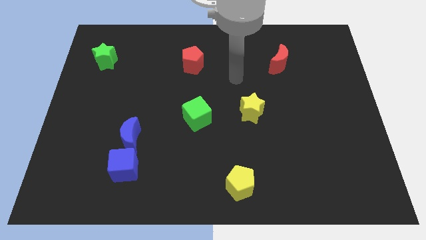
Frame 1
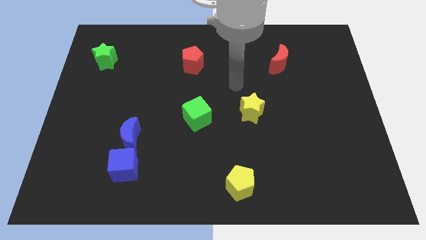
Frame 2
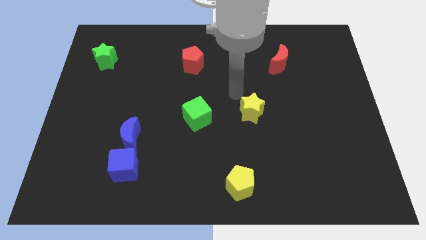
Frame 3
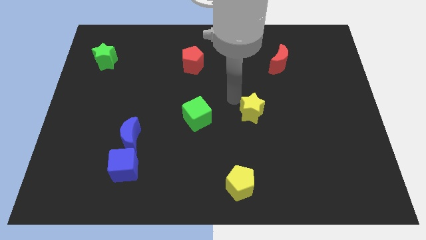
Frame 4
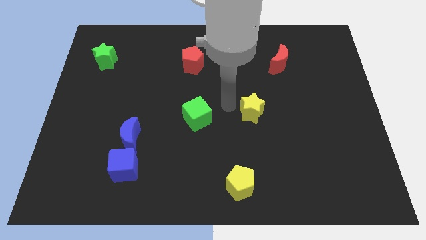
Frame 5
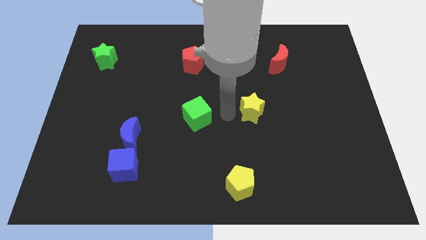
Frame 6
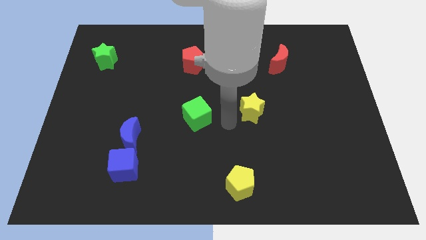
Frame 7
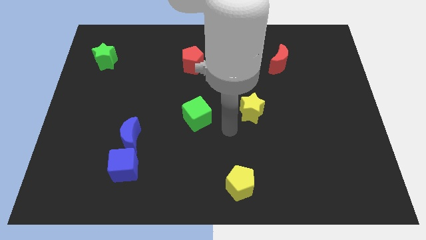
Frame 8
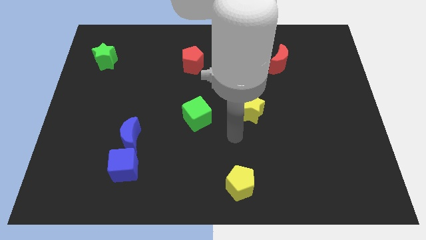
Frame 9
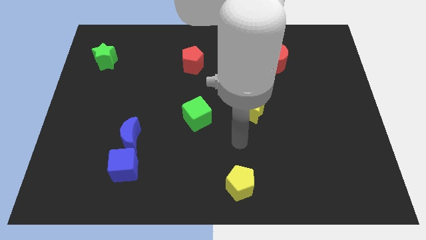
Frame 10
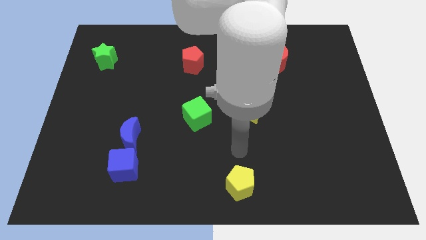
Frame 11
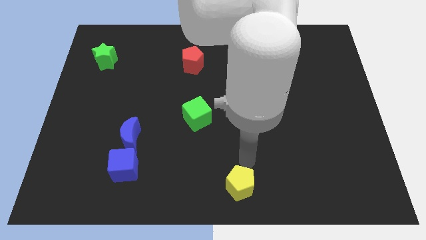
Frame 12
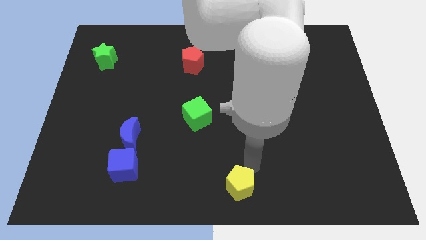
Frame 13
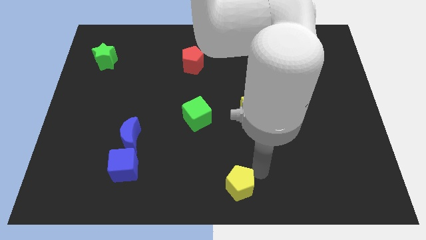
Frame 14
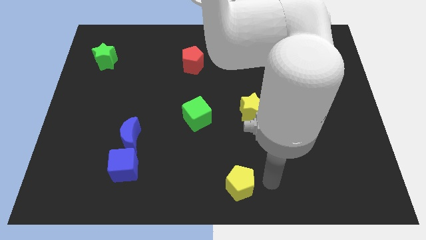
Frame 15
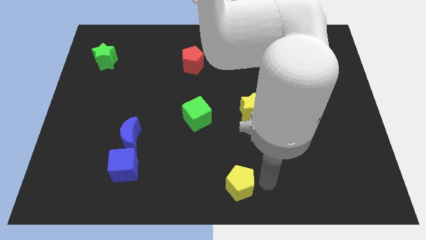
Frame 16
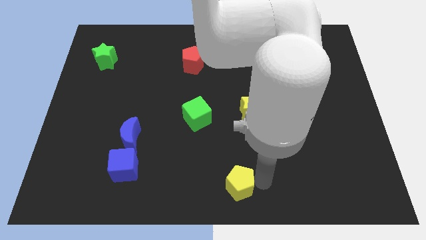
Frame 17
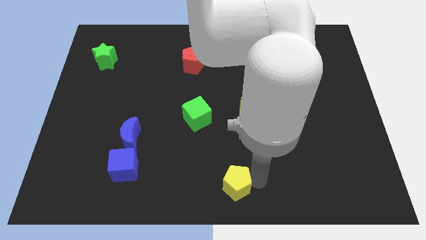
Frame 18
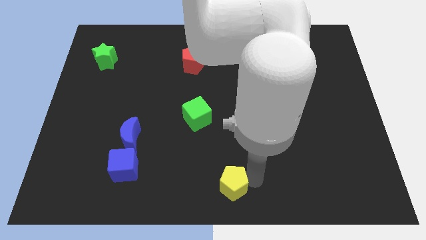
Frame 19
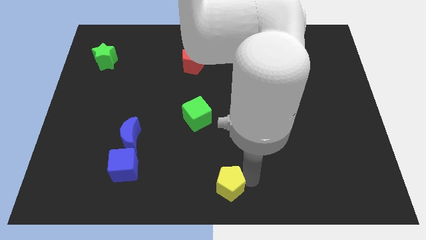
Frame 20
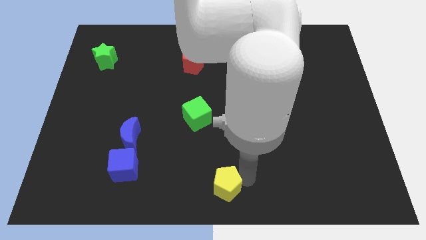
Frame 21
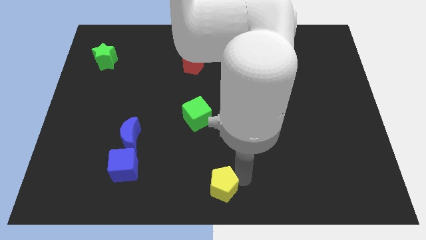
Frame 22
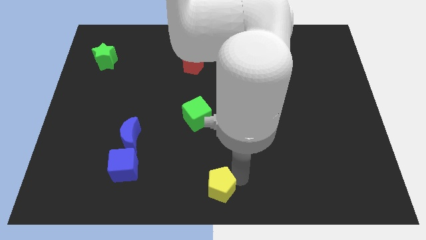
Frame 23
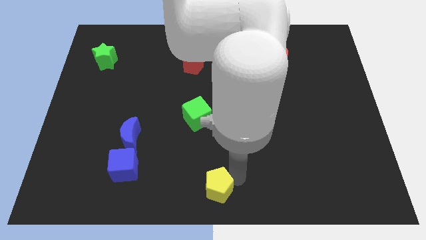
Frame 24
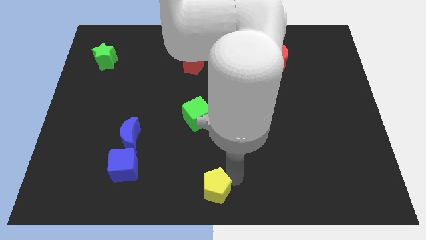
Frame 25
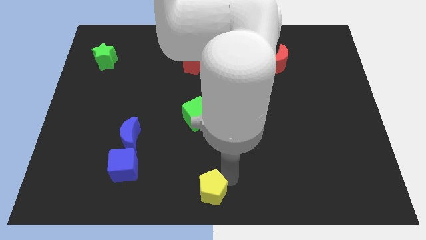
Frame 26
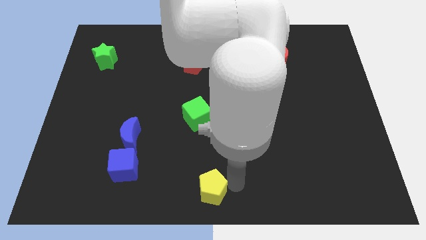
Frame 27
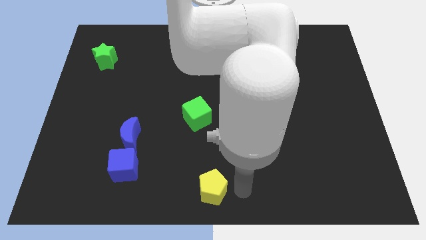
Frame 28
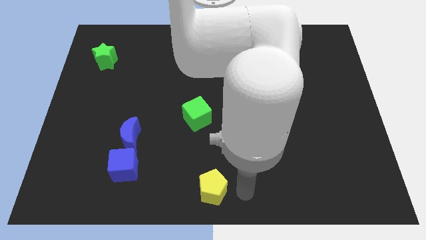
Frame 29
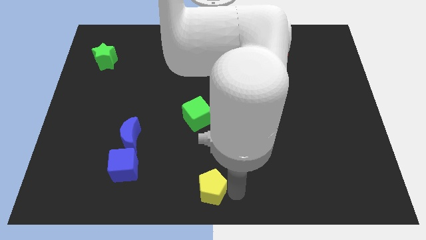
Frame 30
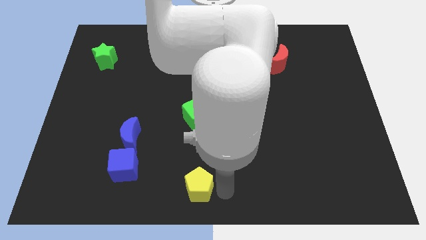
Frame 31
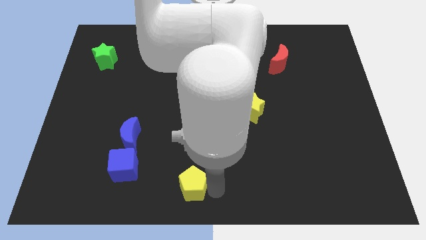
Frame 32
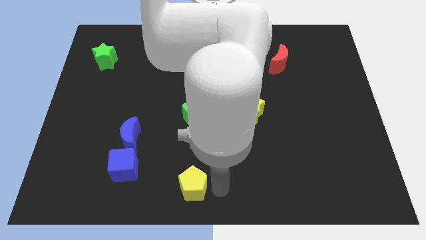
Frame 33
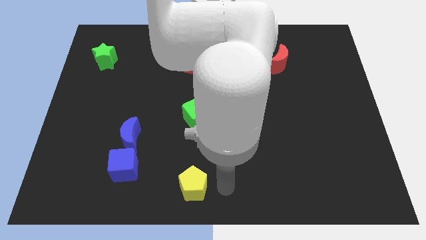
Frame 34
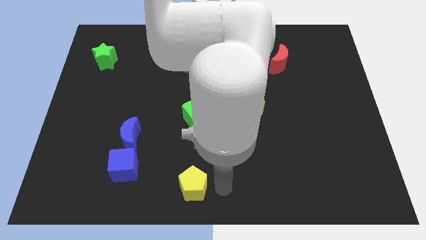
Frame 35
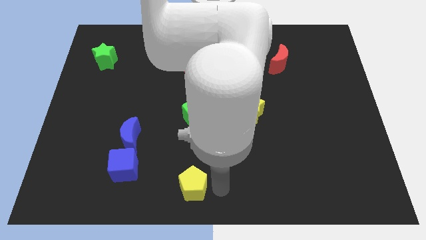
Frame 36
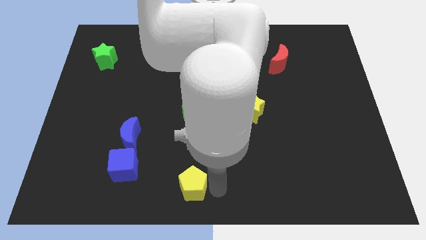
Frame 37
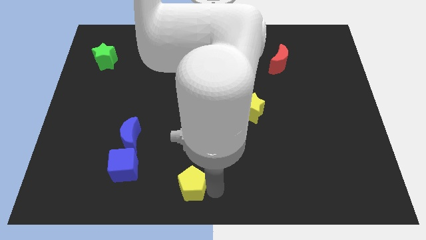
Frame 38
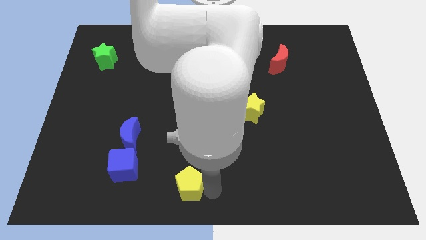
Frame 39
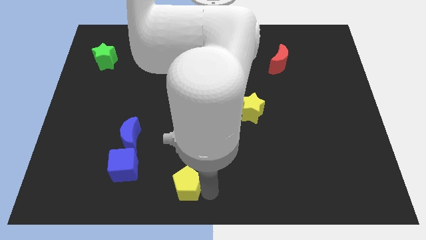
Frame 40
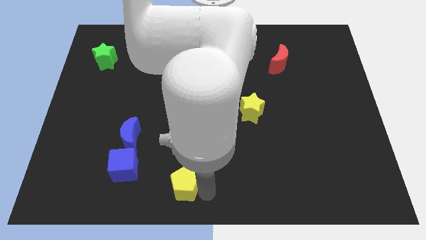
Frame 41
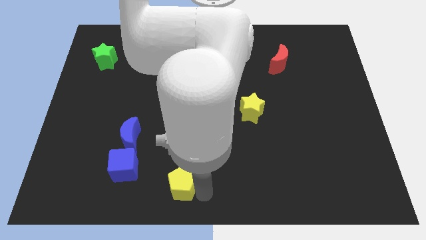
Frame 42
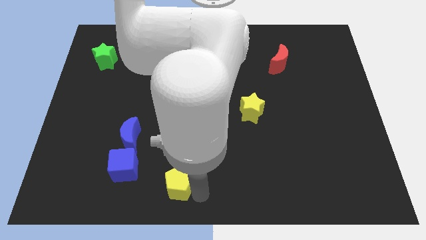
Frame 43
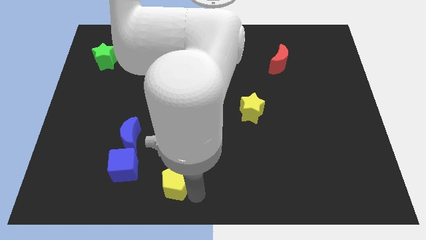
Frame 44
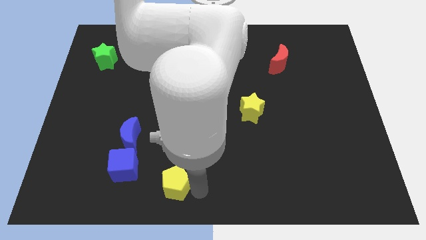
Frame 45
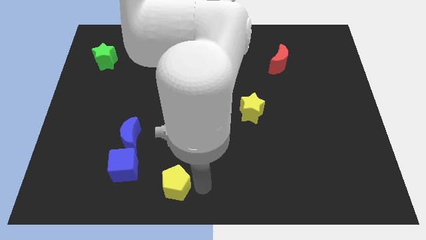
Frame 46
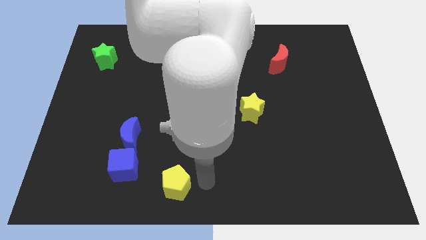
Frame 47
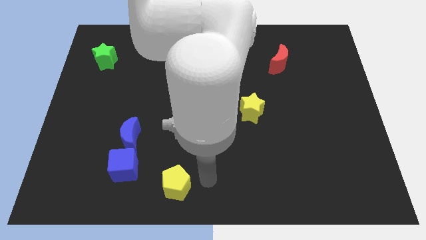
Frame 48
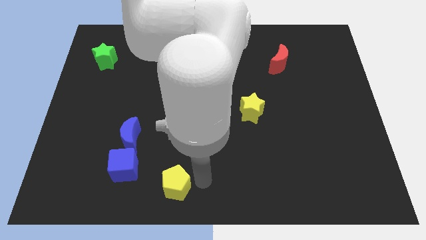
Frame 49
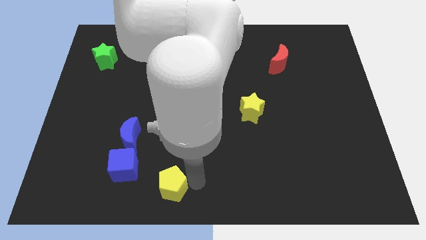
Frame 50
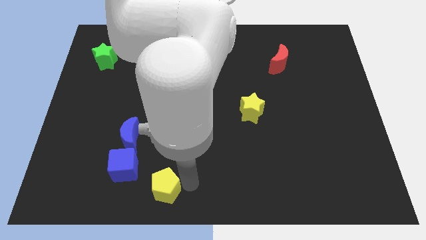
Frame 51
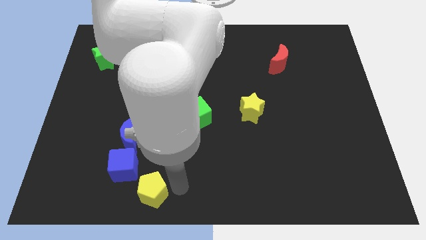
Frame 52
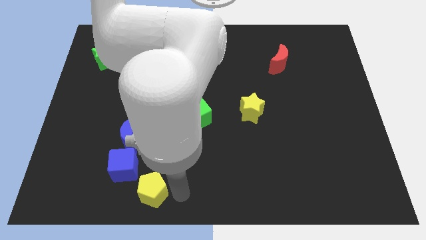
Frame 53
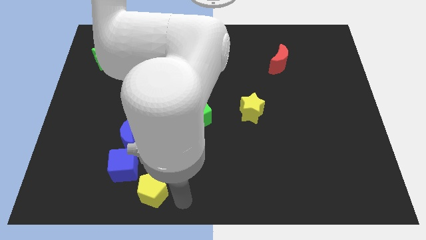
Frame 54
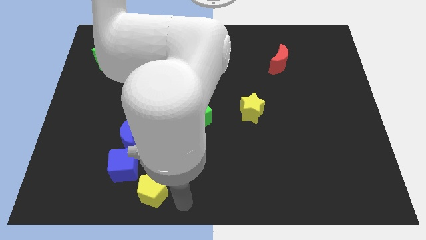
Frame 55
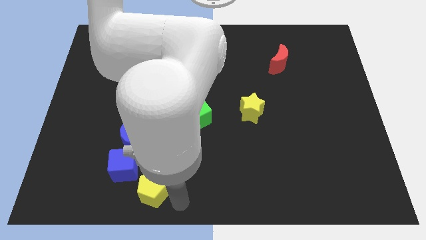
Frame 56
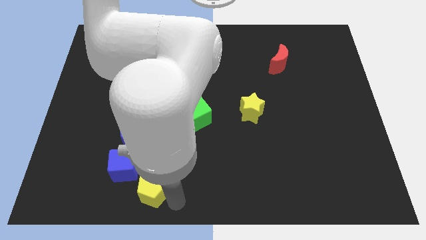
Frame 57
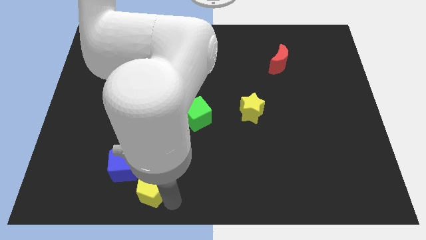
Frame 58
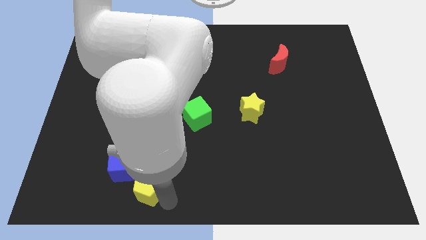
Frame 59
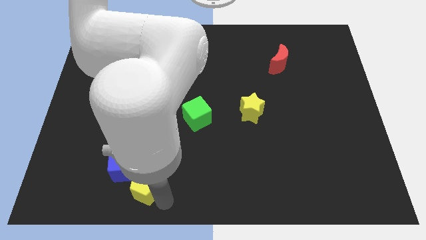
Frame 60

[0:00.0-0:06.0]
push the yellow pentagon to the bottom side of the blue moon

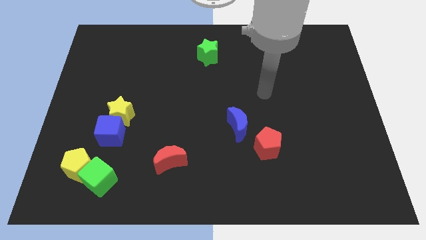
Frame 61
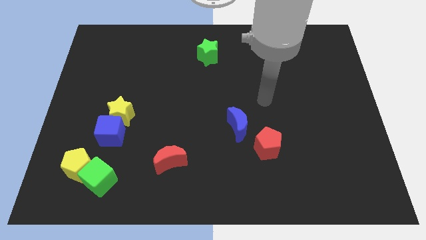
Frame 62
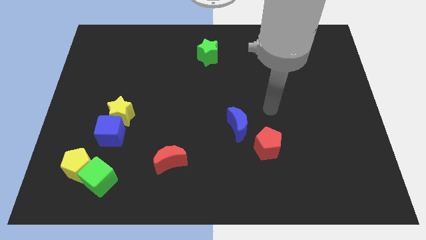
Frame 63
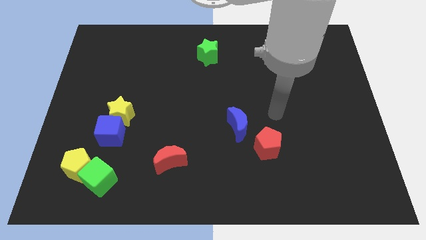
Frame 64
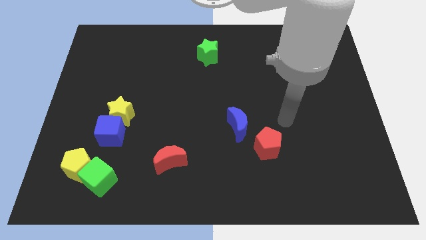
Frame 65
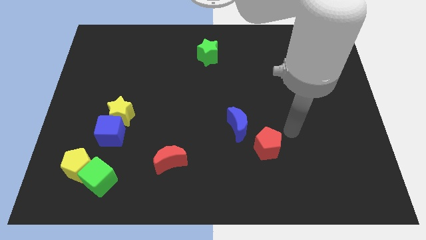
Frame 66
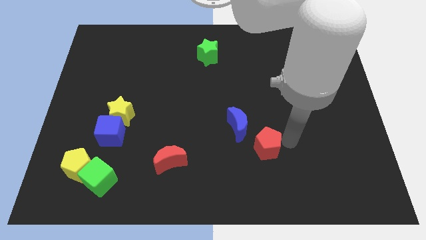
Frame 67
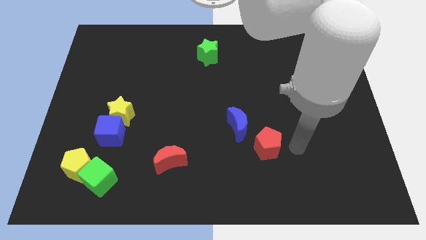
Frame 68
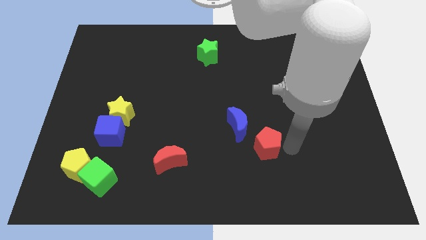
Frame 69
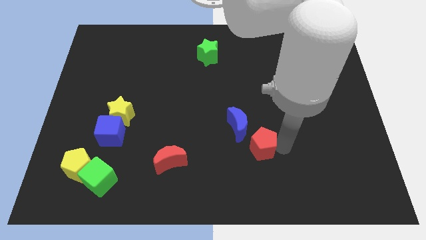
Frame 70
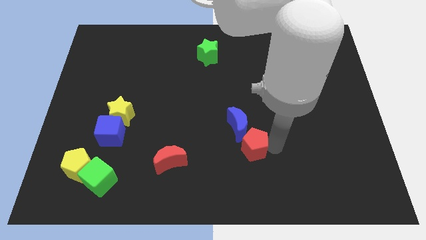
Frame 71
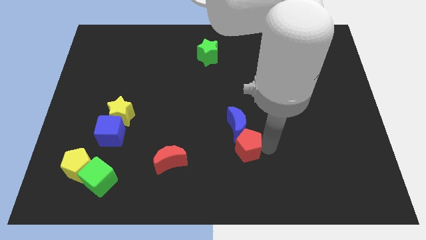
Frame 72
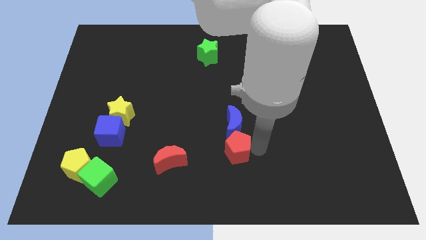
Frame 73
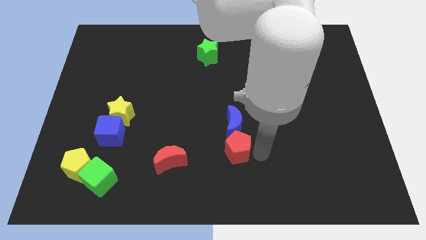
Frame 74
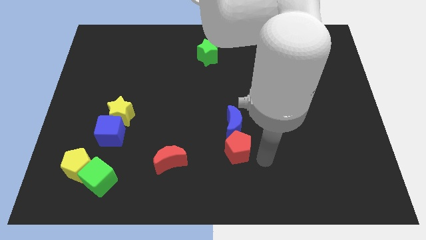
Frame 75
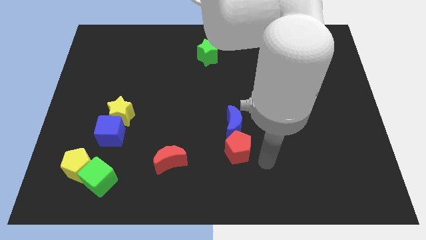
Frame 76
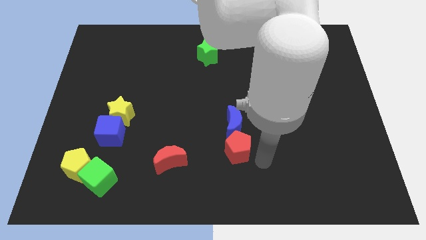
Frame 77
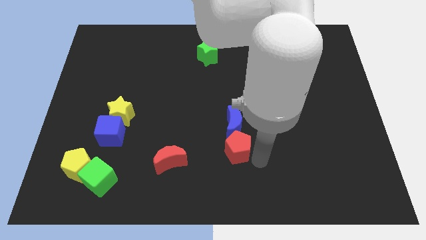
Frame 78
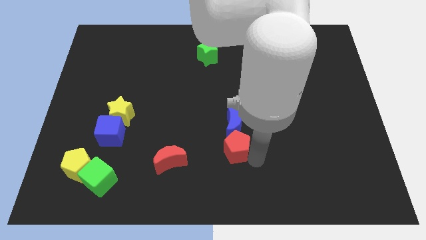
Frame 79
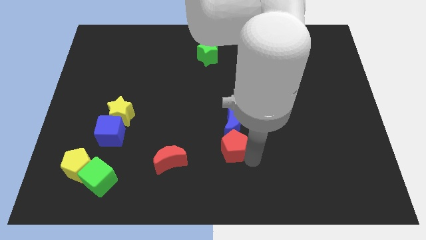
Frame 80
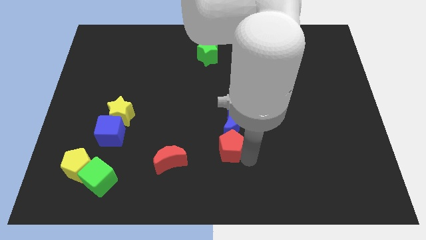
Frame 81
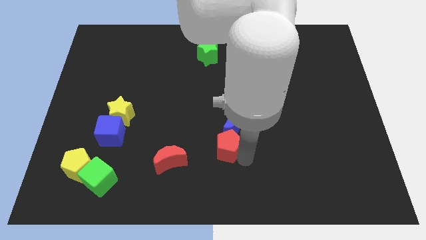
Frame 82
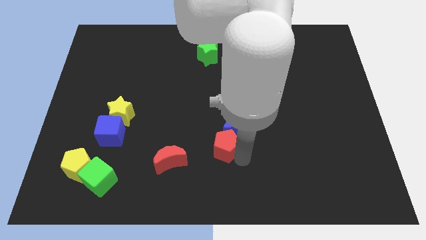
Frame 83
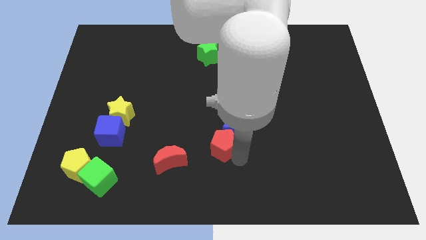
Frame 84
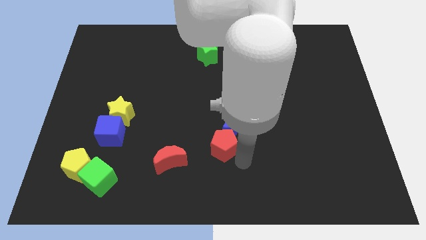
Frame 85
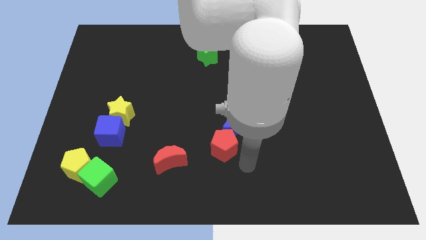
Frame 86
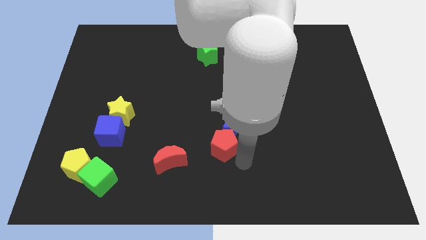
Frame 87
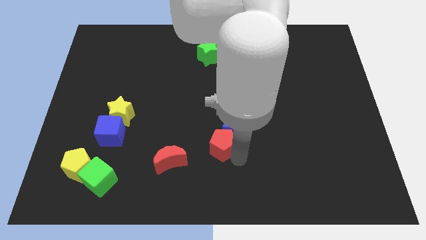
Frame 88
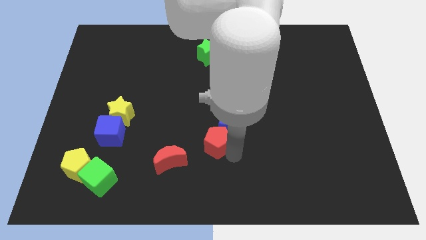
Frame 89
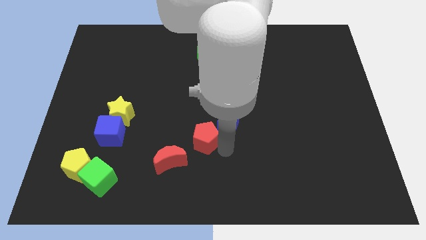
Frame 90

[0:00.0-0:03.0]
move the red pentagon to the left side of the blue moon

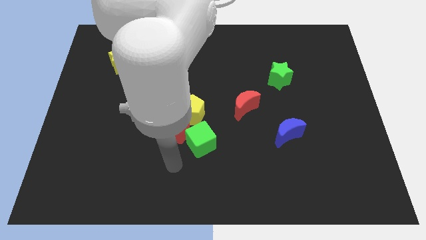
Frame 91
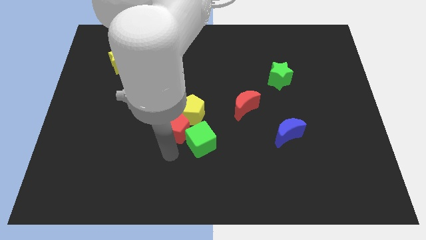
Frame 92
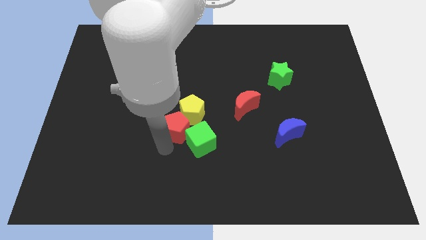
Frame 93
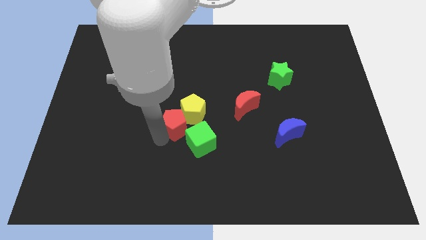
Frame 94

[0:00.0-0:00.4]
slide the yellow pentagon just right of the red pentagon
